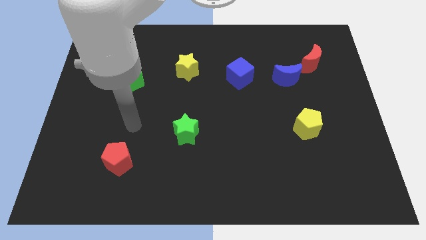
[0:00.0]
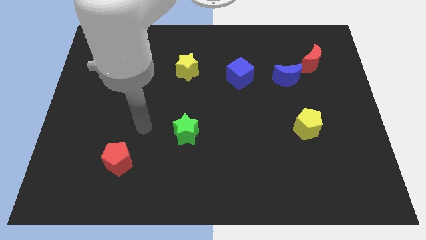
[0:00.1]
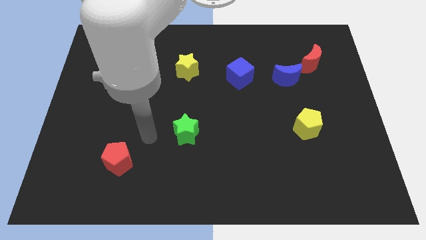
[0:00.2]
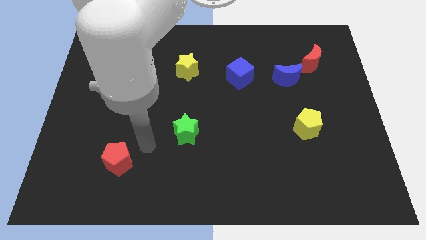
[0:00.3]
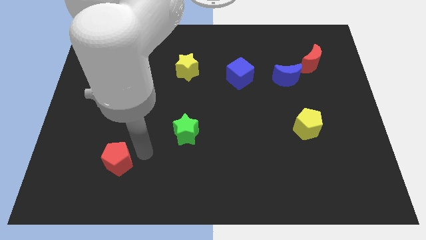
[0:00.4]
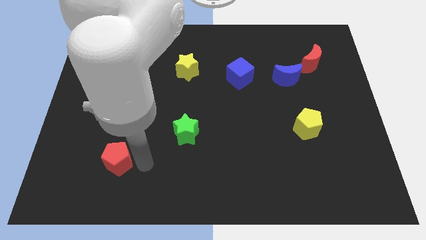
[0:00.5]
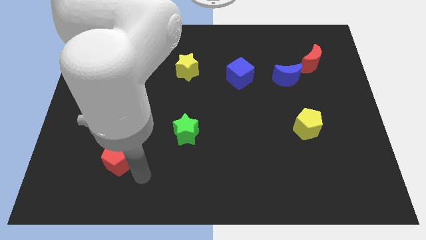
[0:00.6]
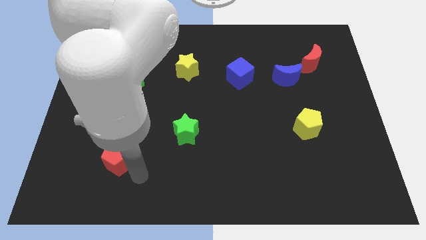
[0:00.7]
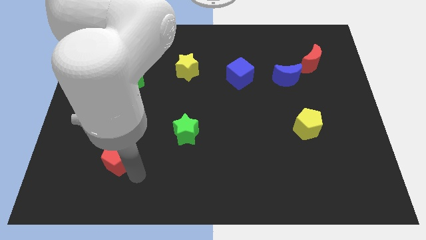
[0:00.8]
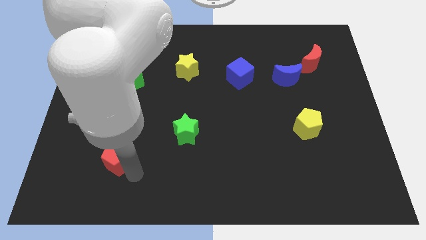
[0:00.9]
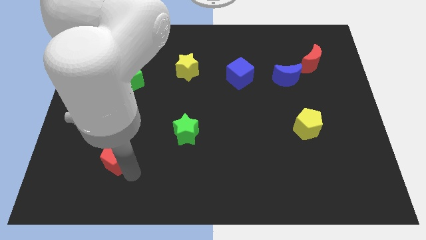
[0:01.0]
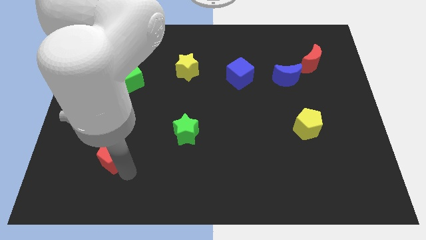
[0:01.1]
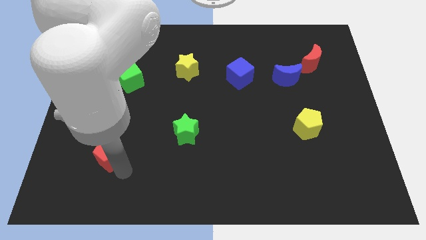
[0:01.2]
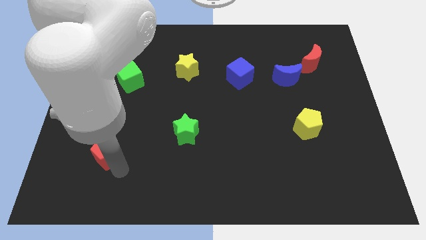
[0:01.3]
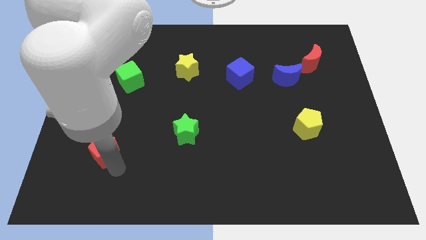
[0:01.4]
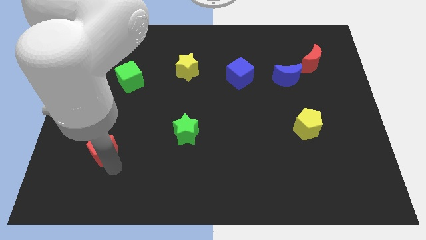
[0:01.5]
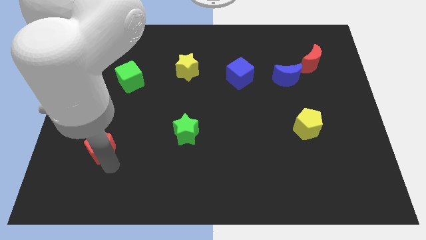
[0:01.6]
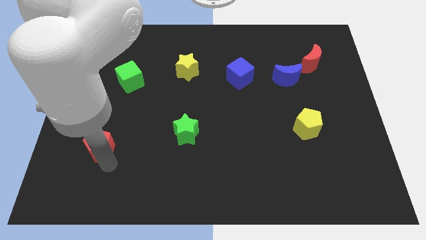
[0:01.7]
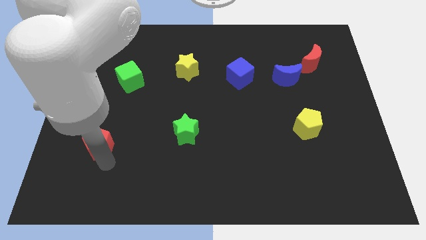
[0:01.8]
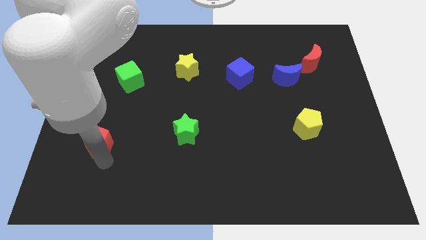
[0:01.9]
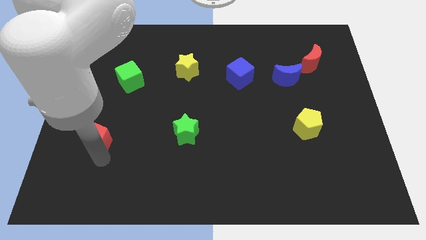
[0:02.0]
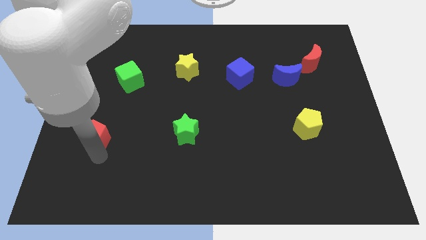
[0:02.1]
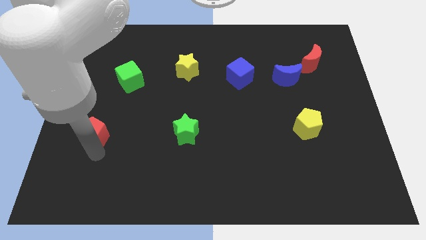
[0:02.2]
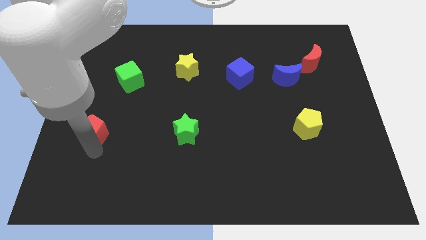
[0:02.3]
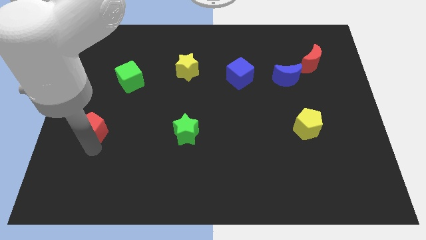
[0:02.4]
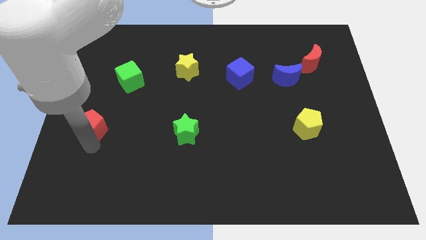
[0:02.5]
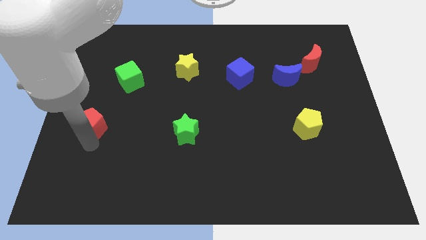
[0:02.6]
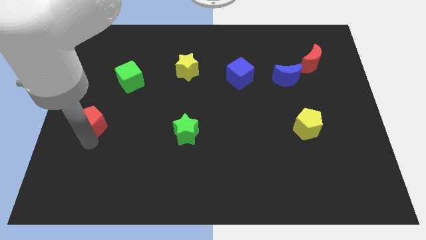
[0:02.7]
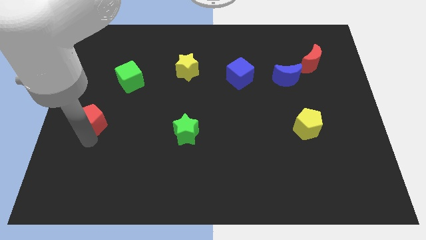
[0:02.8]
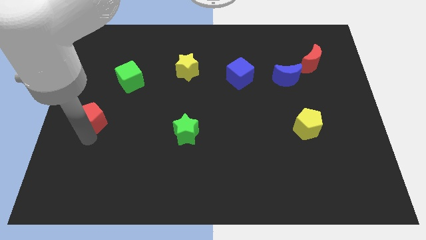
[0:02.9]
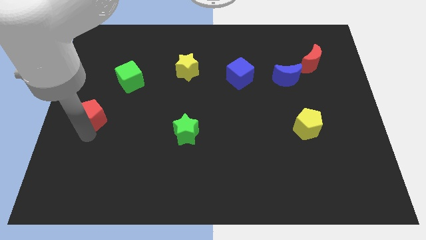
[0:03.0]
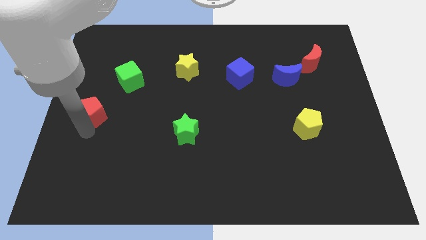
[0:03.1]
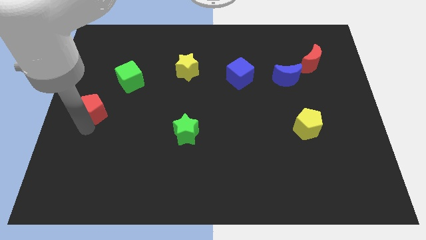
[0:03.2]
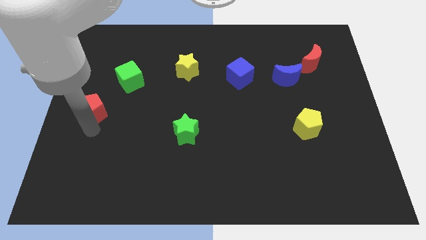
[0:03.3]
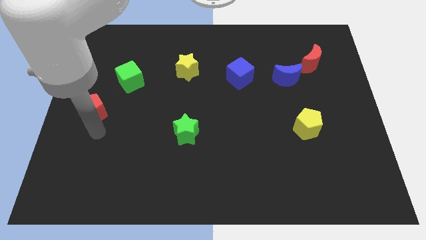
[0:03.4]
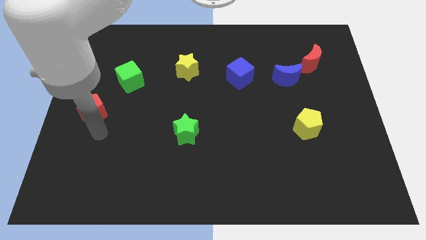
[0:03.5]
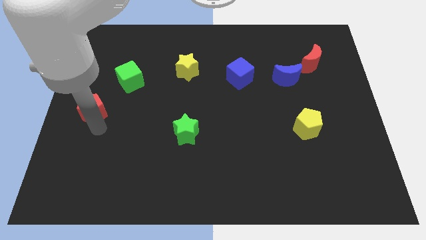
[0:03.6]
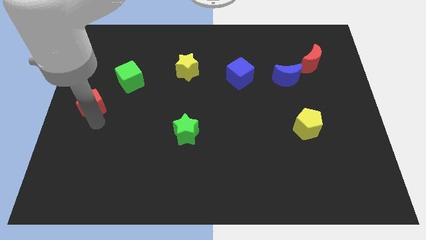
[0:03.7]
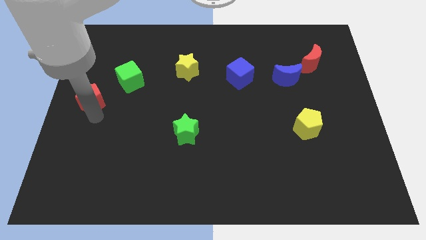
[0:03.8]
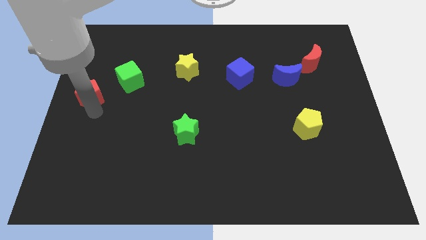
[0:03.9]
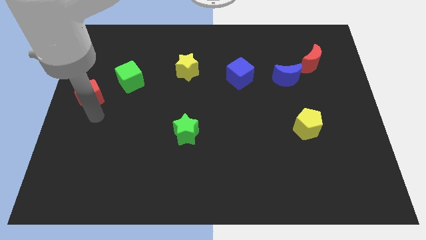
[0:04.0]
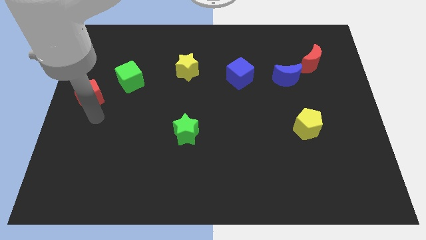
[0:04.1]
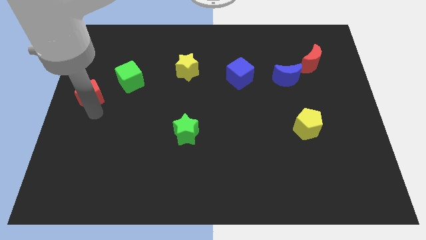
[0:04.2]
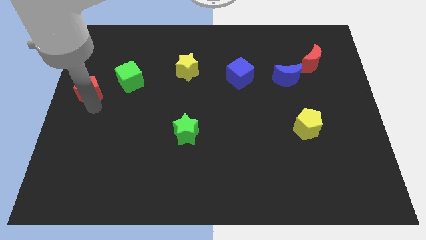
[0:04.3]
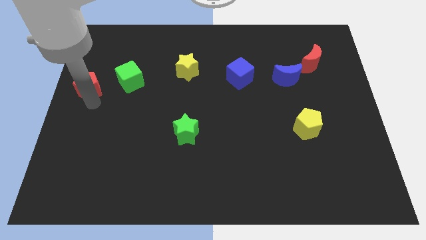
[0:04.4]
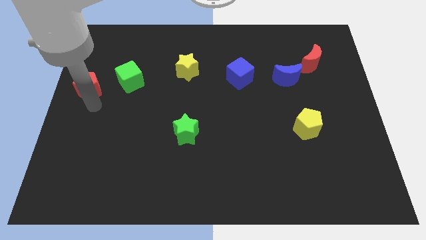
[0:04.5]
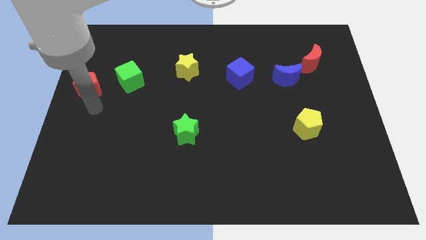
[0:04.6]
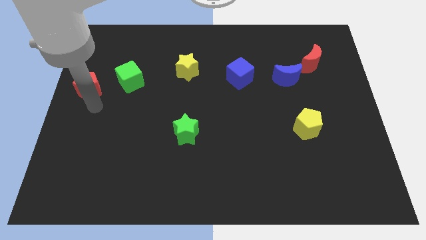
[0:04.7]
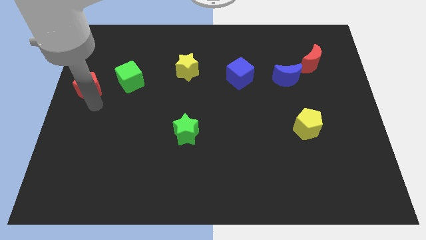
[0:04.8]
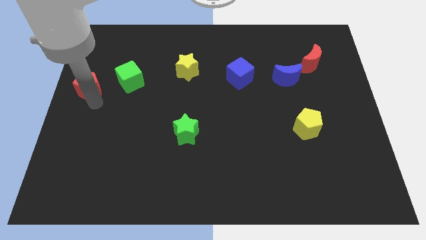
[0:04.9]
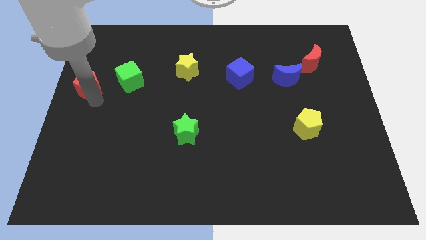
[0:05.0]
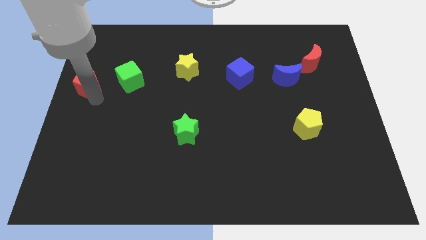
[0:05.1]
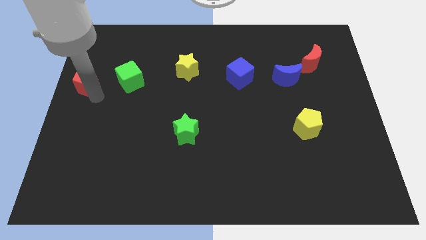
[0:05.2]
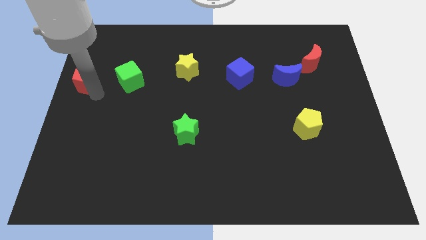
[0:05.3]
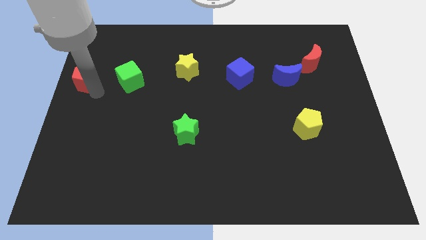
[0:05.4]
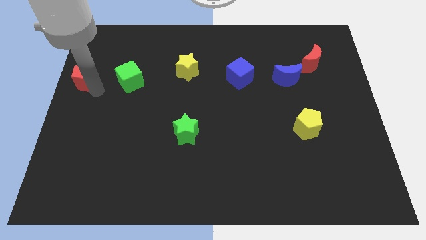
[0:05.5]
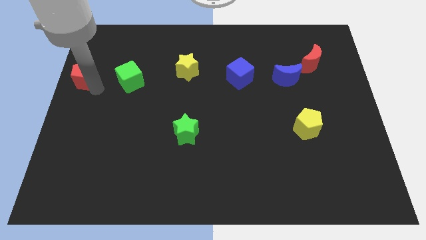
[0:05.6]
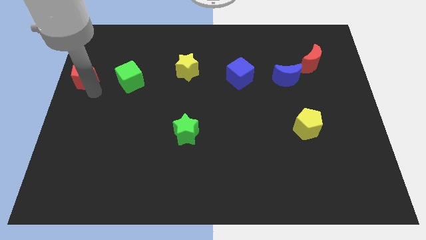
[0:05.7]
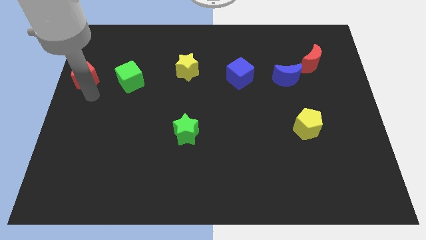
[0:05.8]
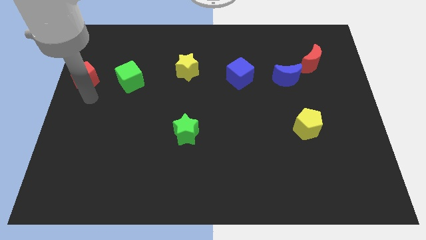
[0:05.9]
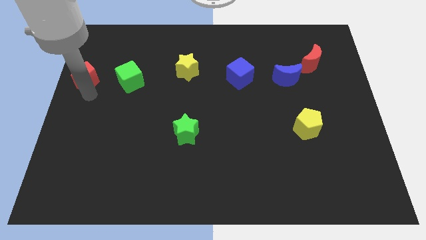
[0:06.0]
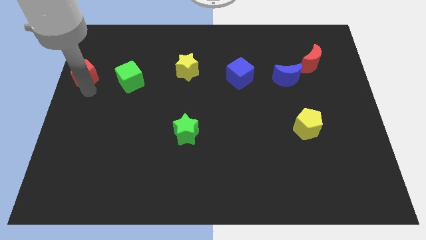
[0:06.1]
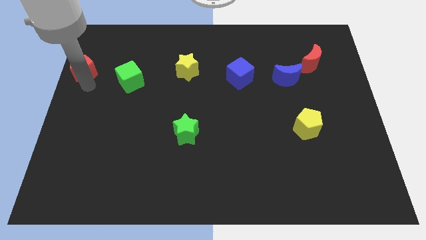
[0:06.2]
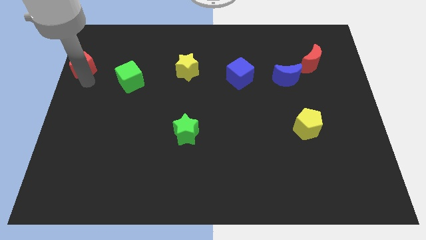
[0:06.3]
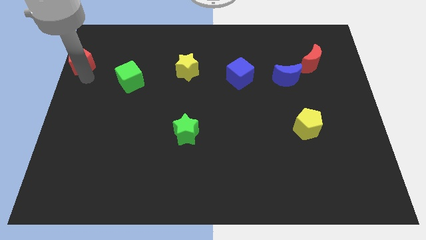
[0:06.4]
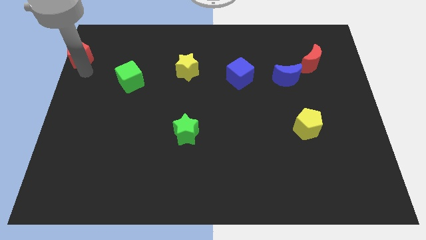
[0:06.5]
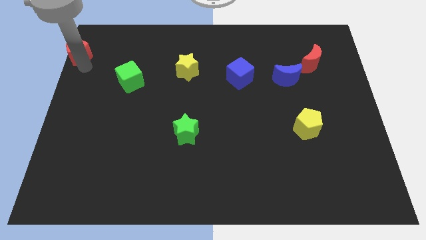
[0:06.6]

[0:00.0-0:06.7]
put the red pentagon to the upper left corner
